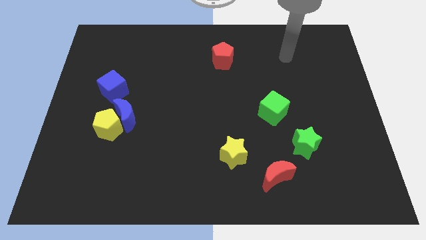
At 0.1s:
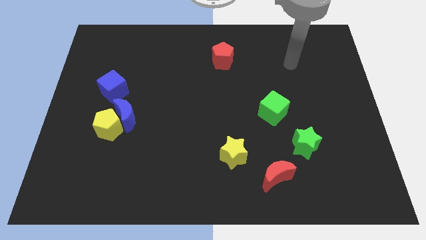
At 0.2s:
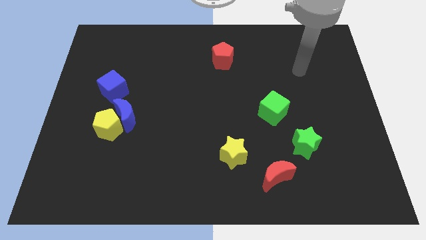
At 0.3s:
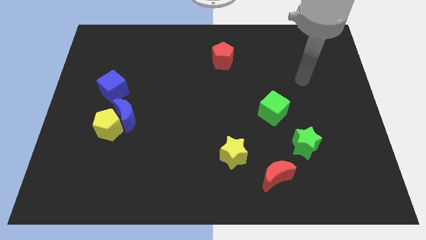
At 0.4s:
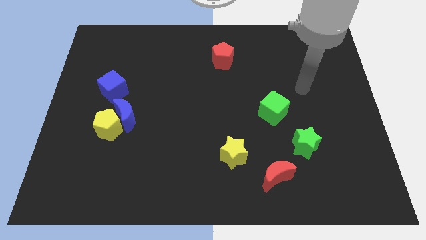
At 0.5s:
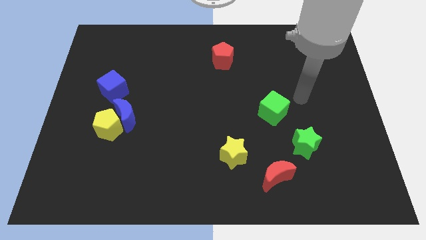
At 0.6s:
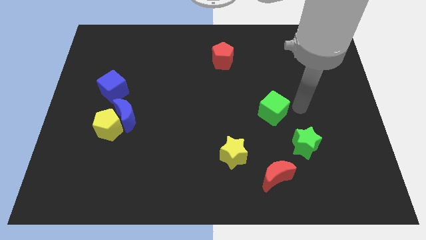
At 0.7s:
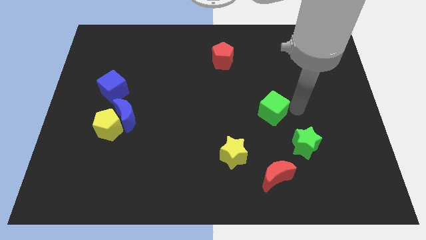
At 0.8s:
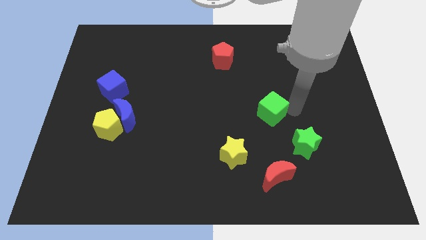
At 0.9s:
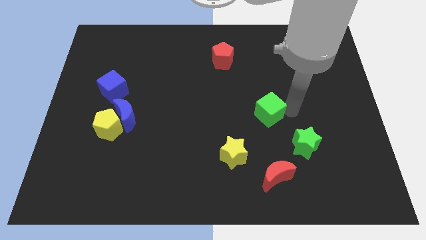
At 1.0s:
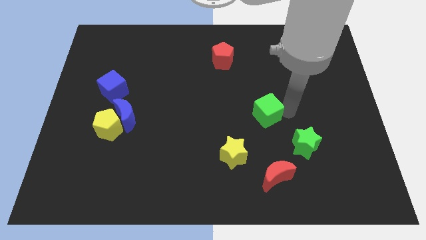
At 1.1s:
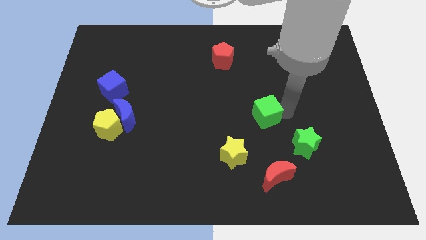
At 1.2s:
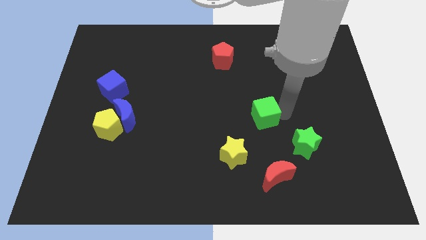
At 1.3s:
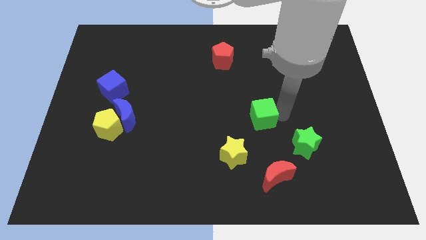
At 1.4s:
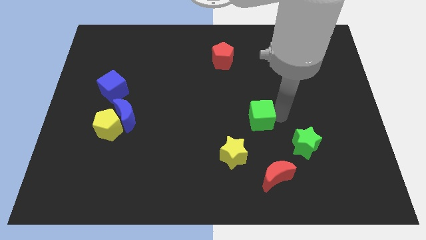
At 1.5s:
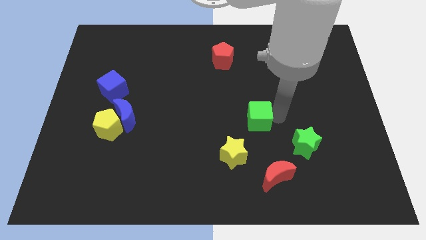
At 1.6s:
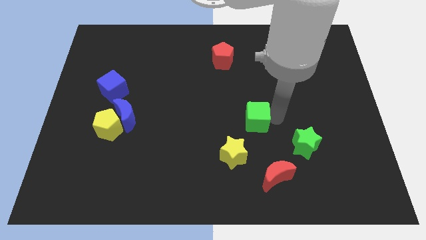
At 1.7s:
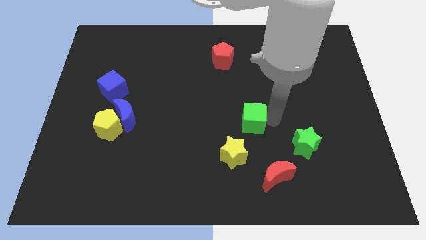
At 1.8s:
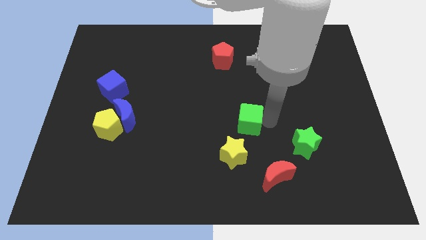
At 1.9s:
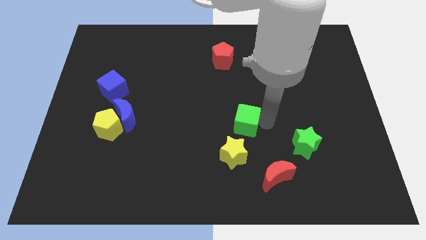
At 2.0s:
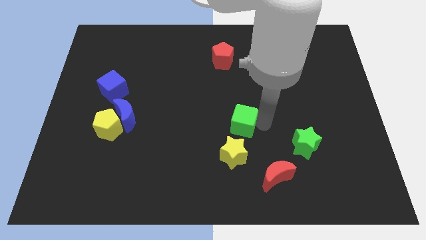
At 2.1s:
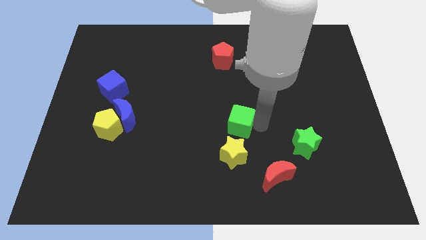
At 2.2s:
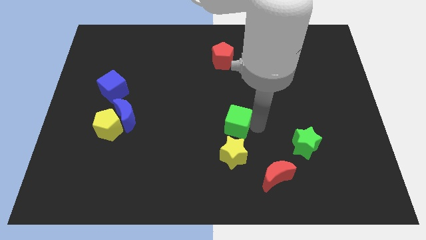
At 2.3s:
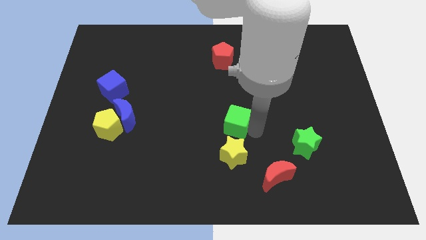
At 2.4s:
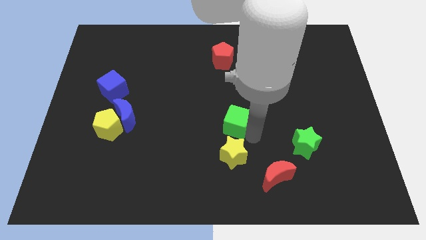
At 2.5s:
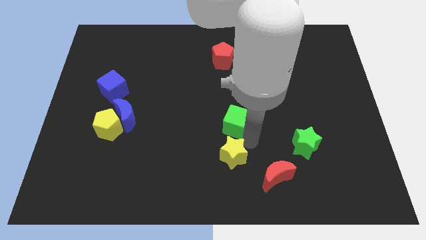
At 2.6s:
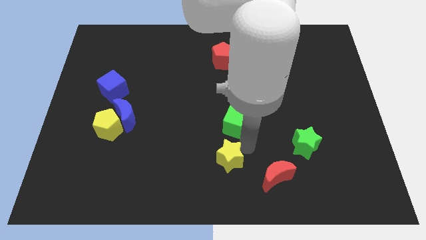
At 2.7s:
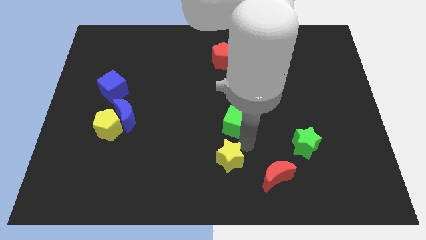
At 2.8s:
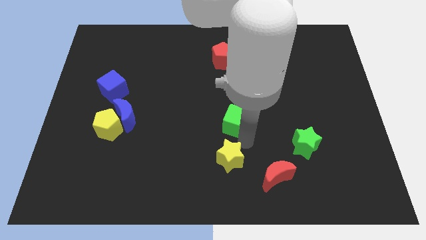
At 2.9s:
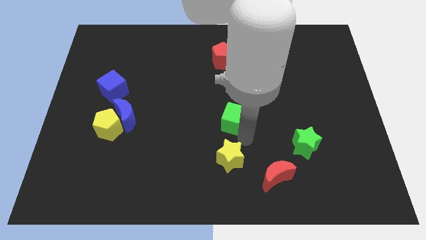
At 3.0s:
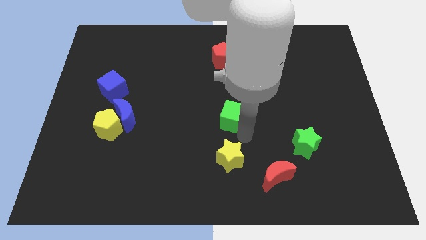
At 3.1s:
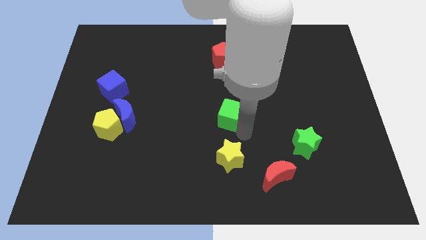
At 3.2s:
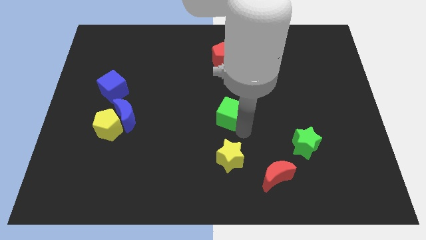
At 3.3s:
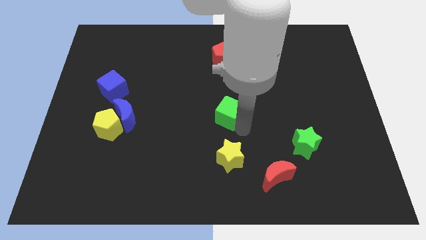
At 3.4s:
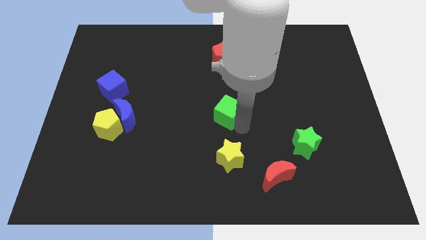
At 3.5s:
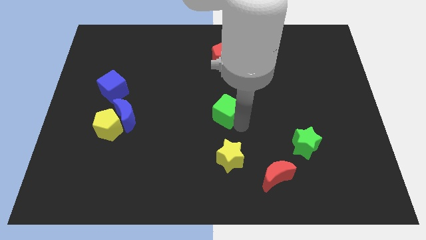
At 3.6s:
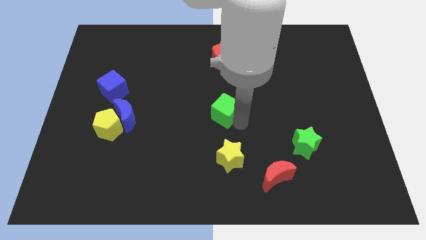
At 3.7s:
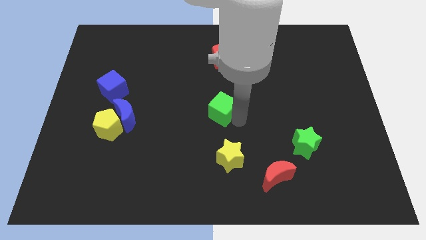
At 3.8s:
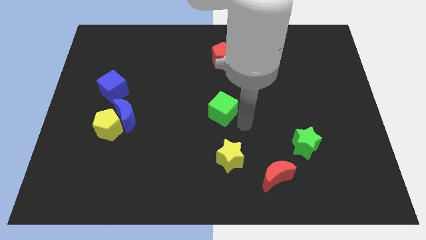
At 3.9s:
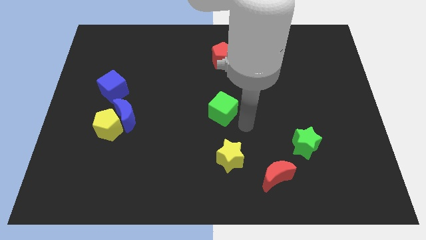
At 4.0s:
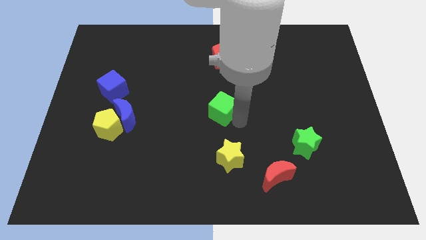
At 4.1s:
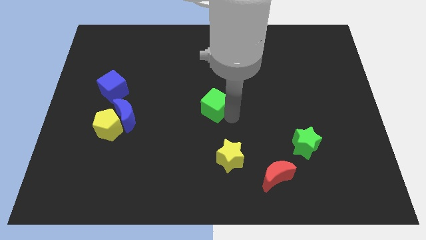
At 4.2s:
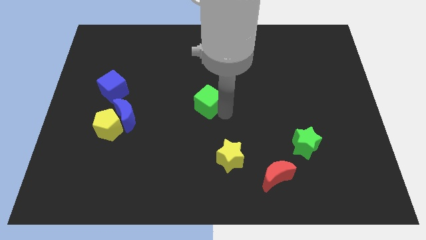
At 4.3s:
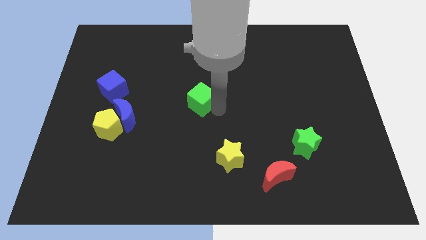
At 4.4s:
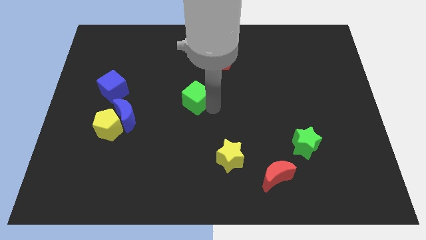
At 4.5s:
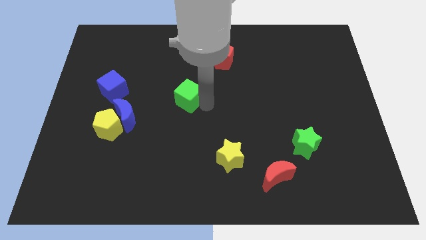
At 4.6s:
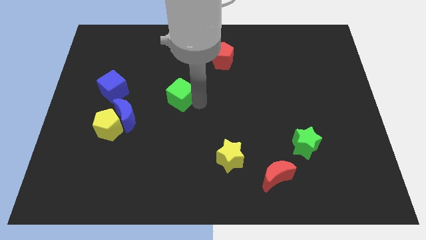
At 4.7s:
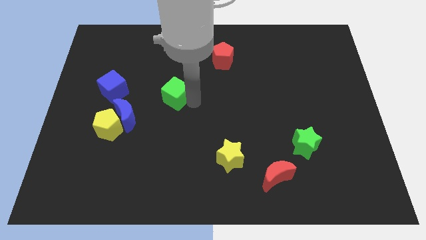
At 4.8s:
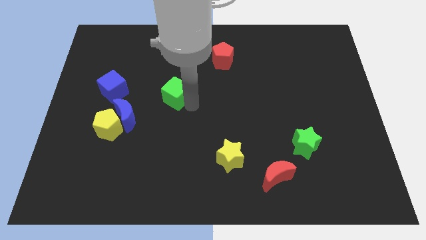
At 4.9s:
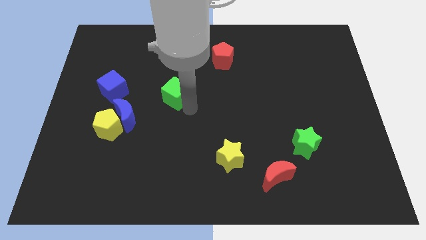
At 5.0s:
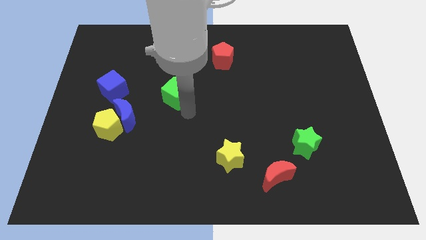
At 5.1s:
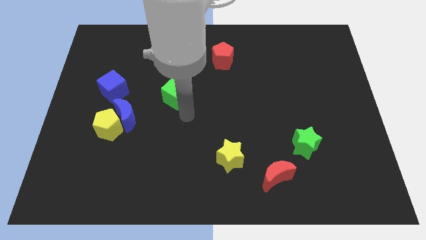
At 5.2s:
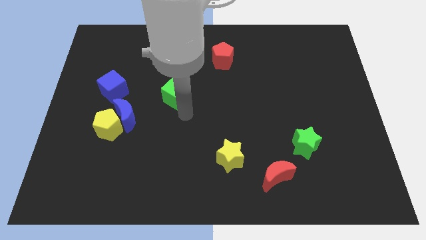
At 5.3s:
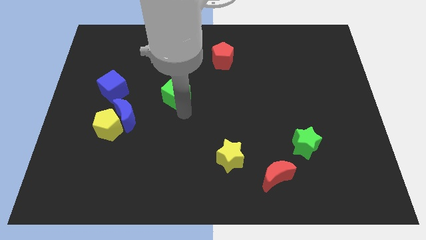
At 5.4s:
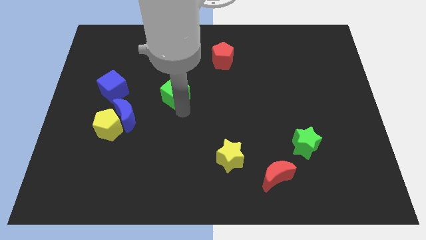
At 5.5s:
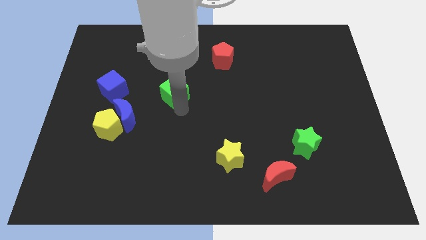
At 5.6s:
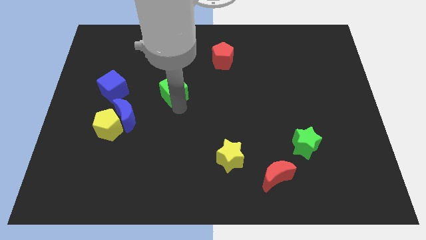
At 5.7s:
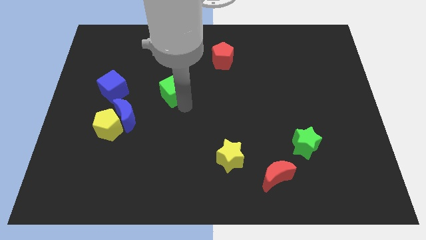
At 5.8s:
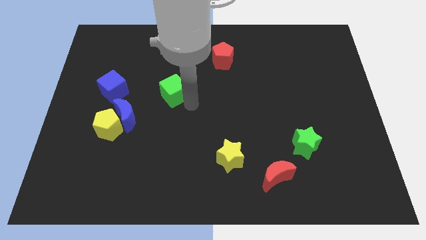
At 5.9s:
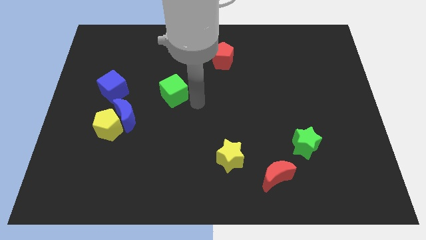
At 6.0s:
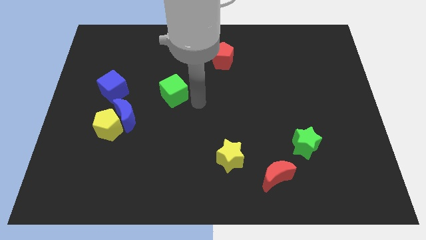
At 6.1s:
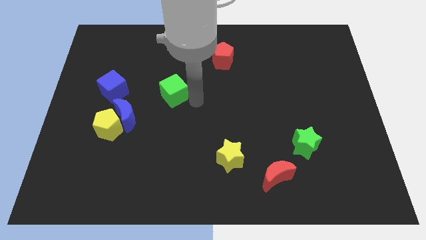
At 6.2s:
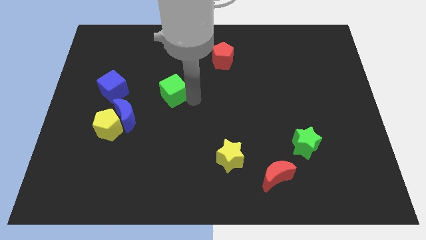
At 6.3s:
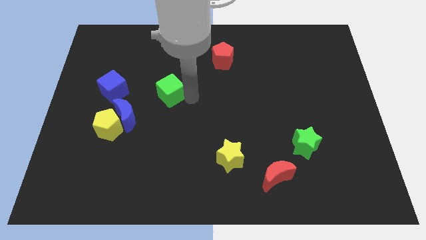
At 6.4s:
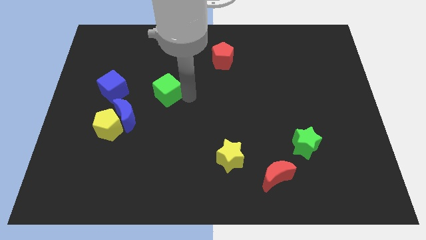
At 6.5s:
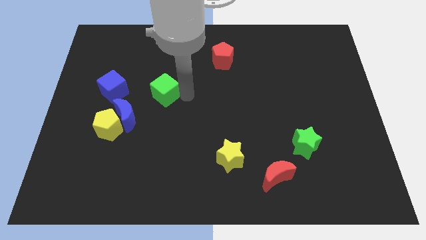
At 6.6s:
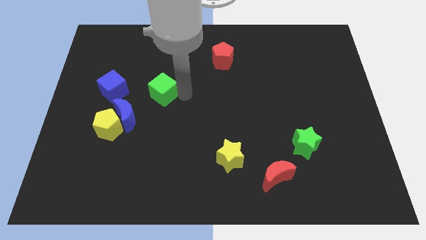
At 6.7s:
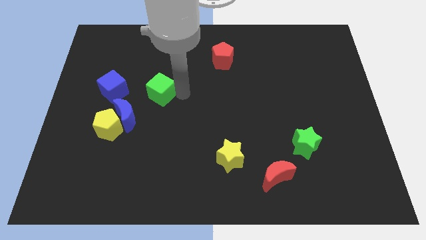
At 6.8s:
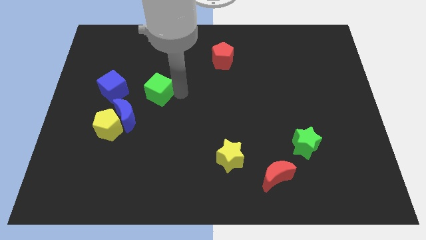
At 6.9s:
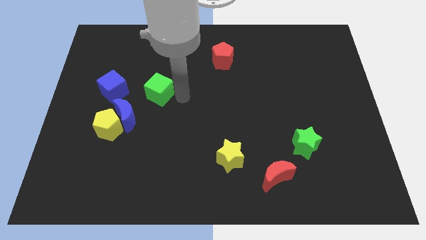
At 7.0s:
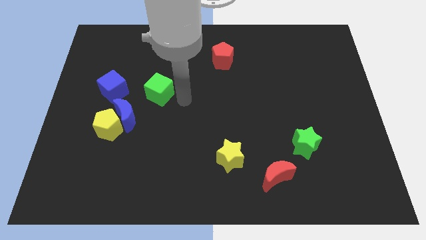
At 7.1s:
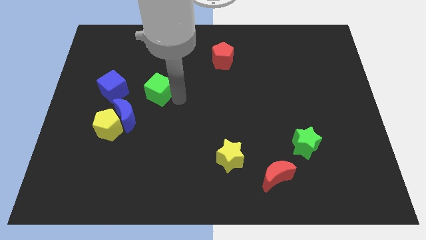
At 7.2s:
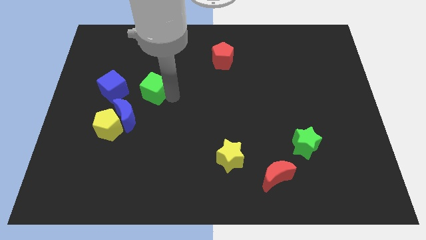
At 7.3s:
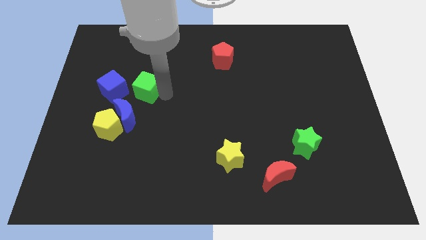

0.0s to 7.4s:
put the green cube to the top of the blue moon

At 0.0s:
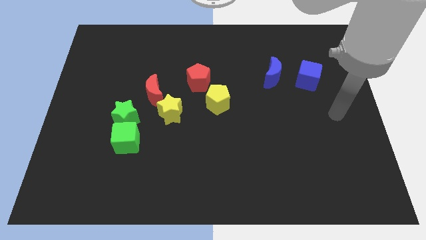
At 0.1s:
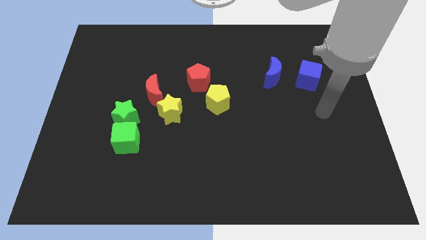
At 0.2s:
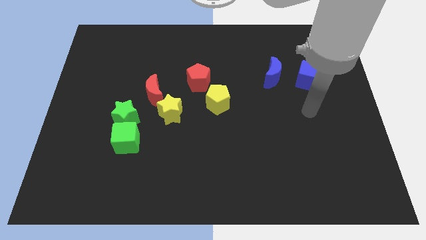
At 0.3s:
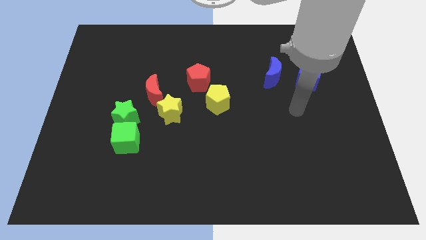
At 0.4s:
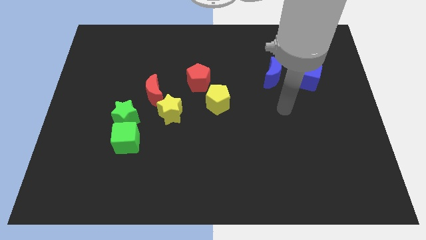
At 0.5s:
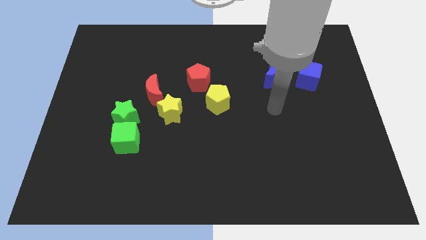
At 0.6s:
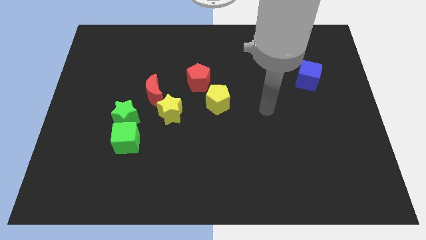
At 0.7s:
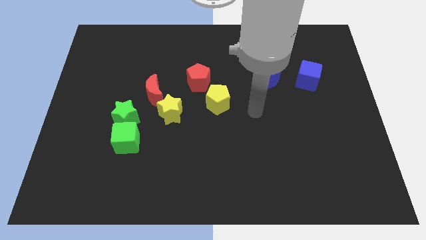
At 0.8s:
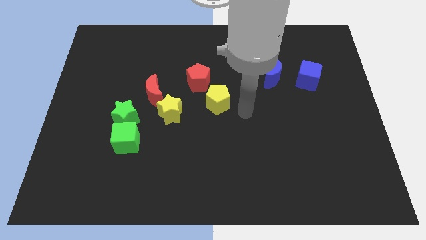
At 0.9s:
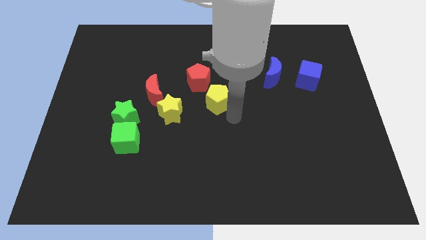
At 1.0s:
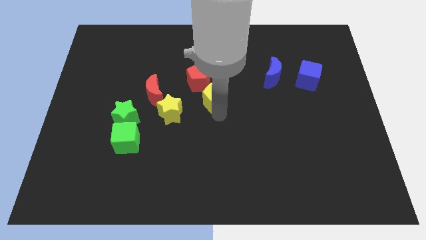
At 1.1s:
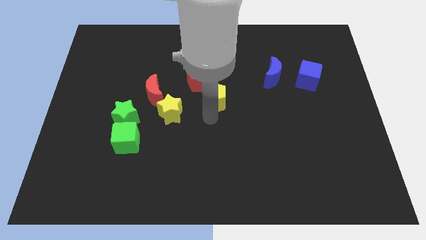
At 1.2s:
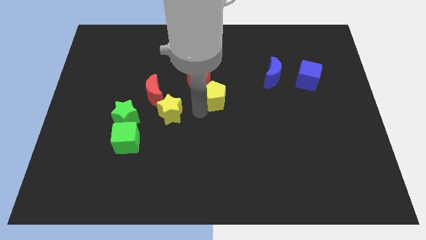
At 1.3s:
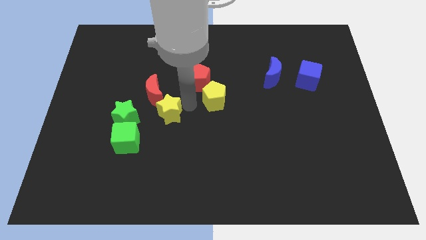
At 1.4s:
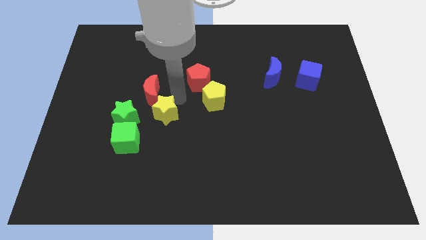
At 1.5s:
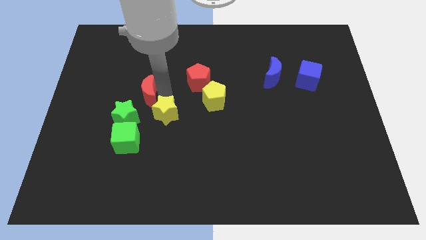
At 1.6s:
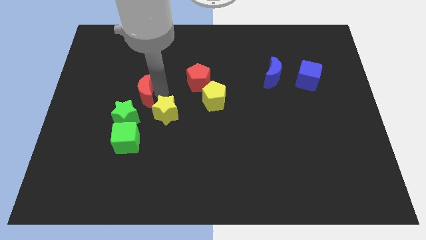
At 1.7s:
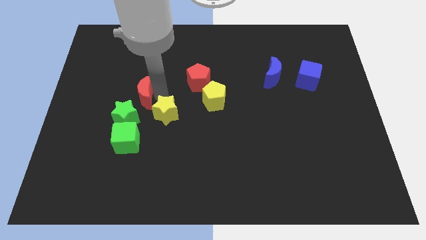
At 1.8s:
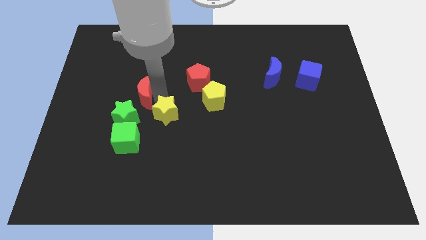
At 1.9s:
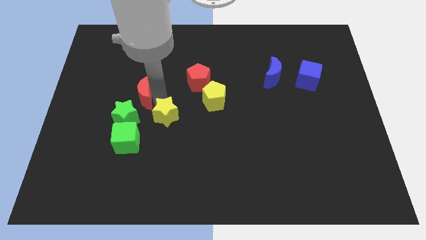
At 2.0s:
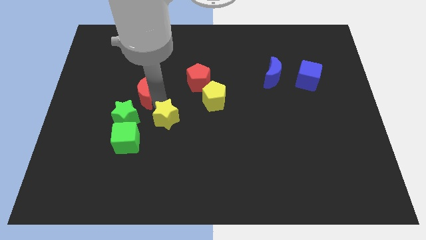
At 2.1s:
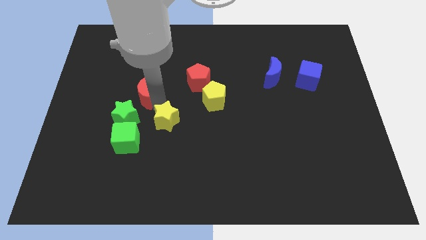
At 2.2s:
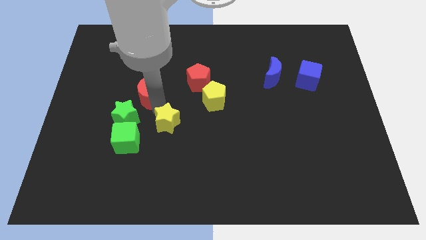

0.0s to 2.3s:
move the yellow star just right of the green cube
